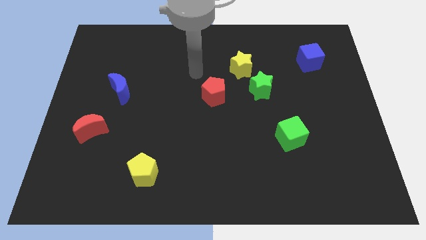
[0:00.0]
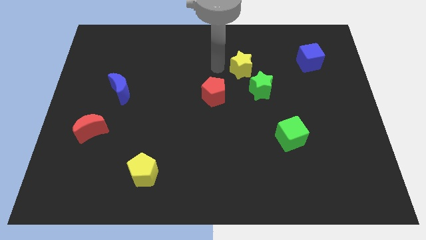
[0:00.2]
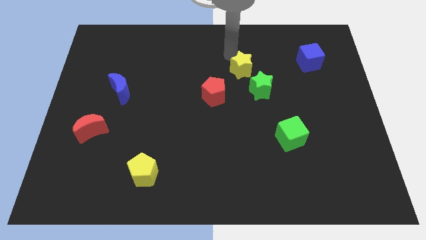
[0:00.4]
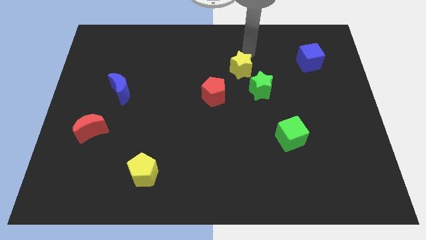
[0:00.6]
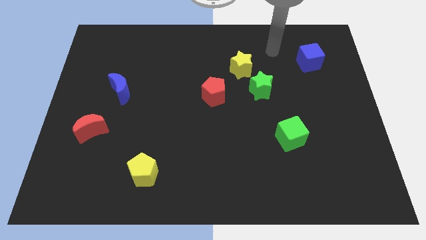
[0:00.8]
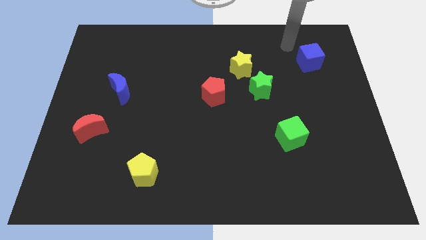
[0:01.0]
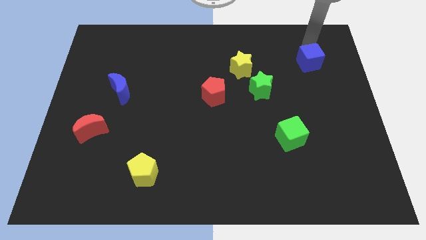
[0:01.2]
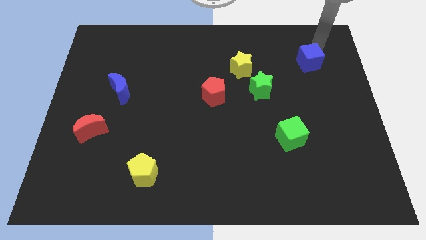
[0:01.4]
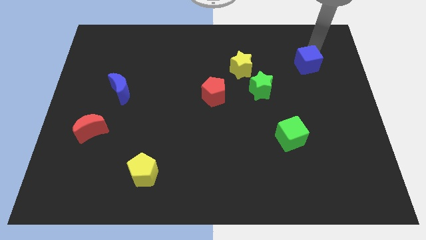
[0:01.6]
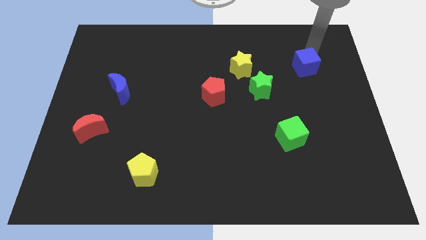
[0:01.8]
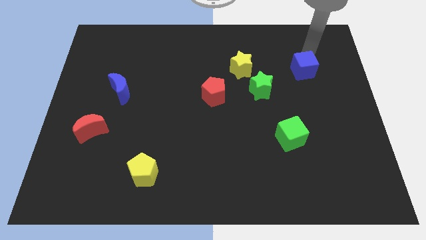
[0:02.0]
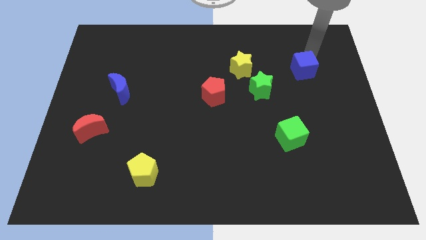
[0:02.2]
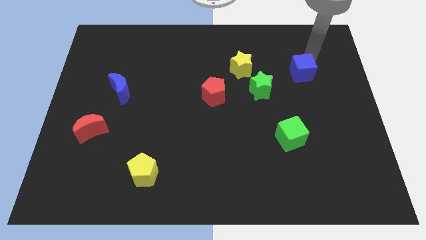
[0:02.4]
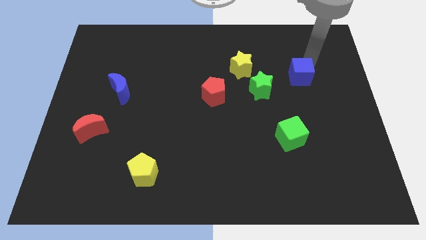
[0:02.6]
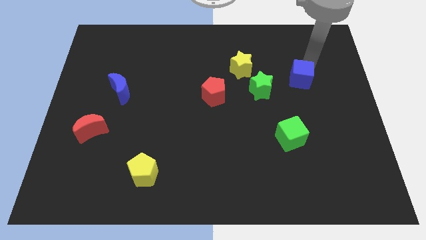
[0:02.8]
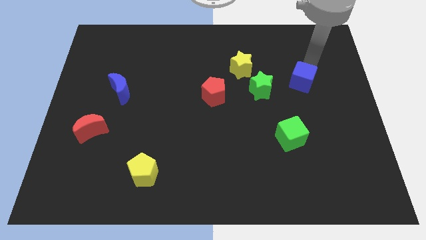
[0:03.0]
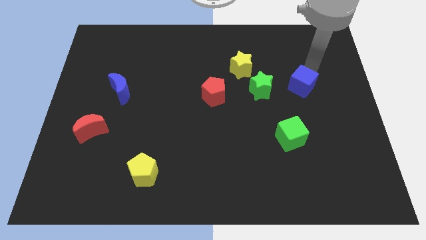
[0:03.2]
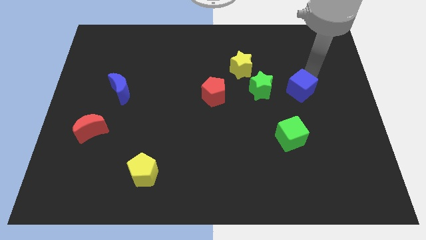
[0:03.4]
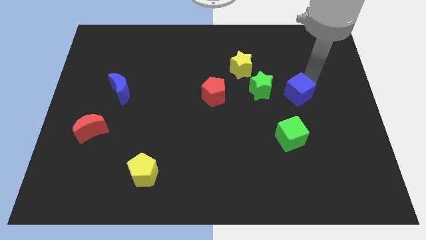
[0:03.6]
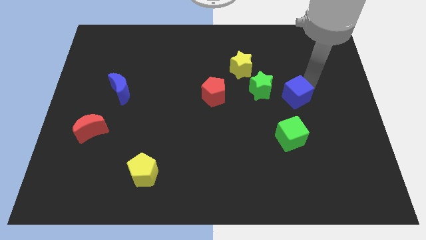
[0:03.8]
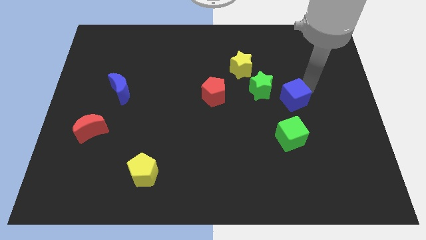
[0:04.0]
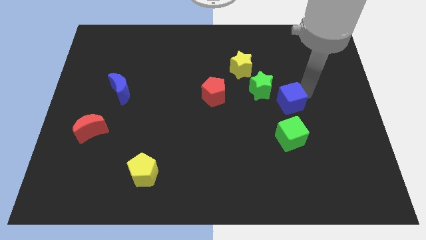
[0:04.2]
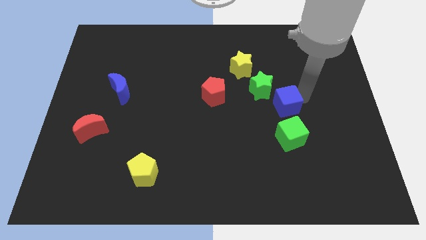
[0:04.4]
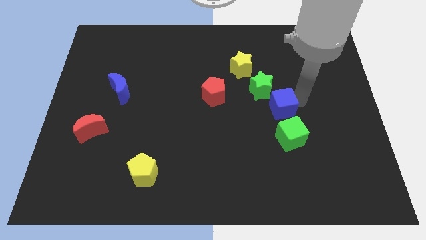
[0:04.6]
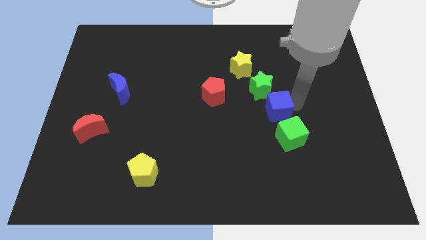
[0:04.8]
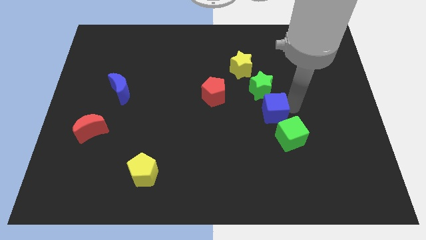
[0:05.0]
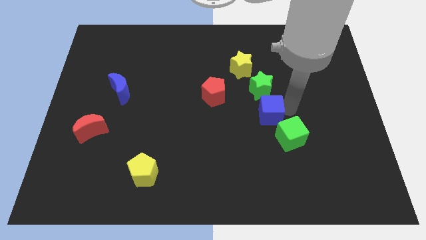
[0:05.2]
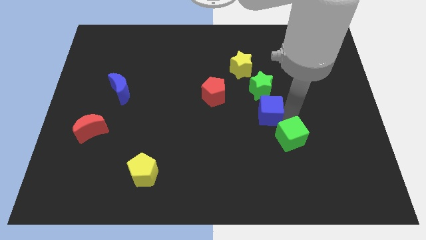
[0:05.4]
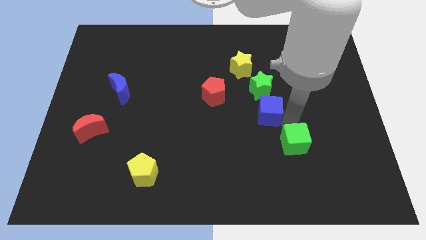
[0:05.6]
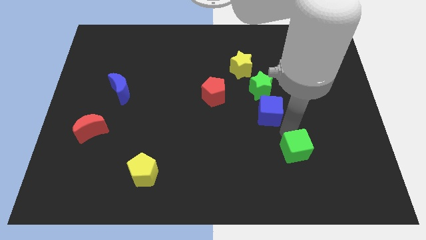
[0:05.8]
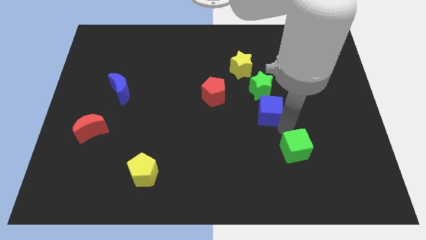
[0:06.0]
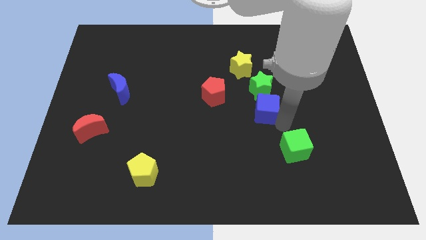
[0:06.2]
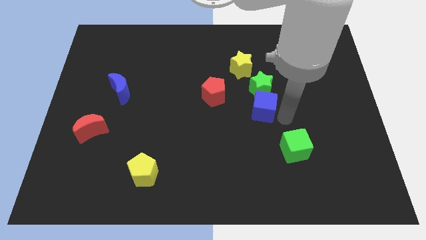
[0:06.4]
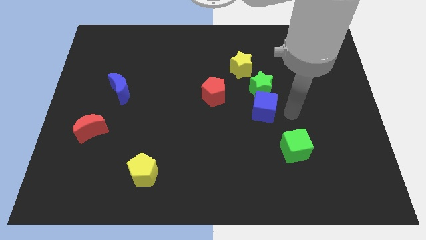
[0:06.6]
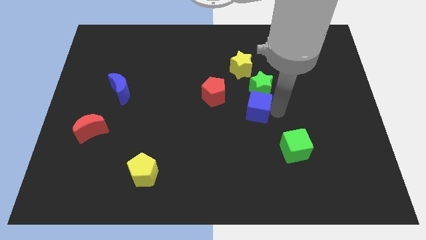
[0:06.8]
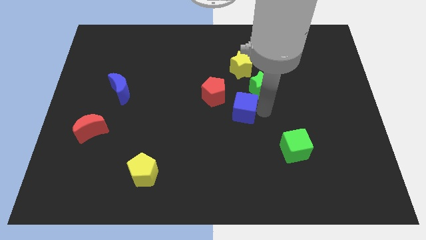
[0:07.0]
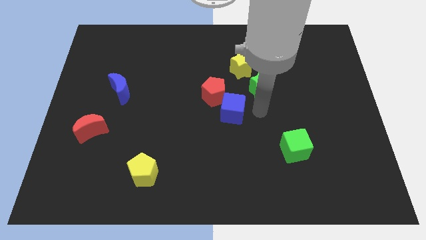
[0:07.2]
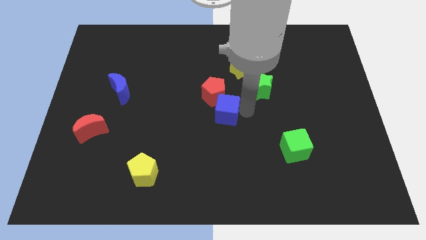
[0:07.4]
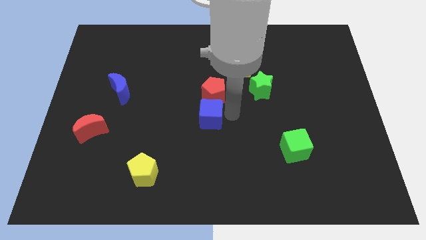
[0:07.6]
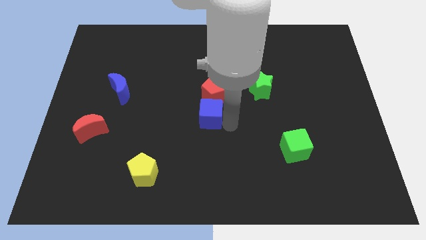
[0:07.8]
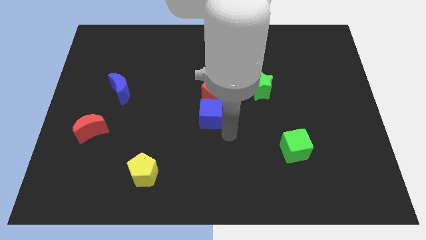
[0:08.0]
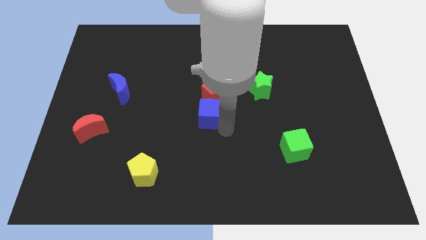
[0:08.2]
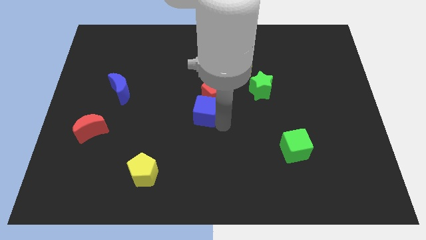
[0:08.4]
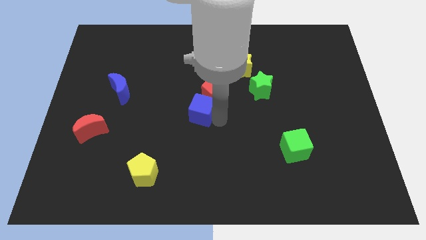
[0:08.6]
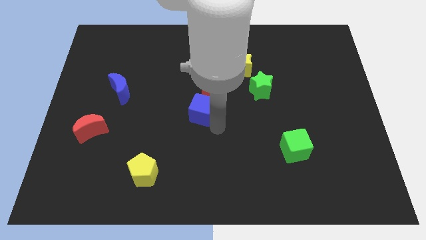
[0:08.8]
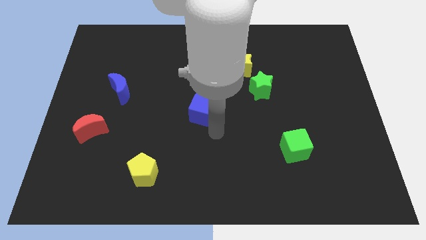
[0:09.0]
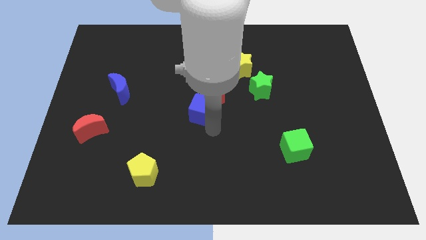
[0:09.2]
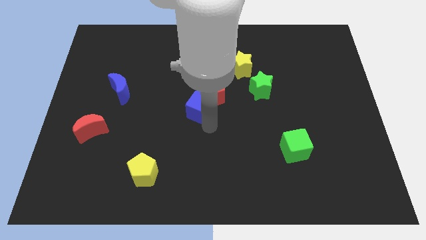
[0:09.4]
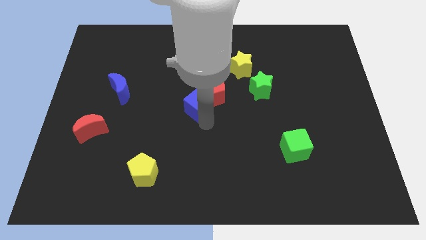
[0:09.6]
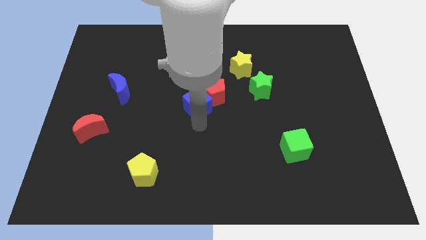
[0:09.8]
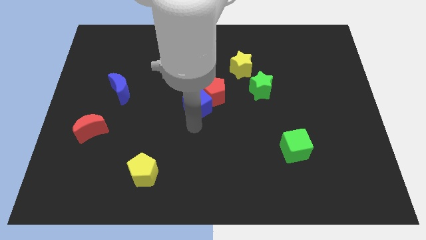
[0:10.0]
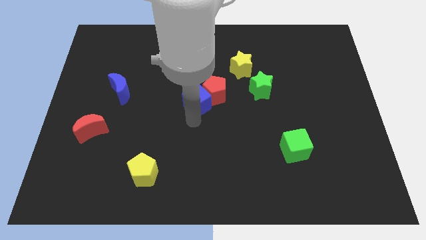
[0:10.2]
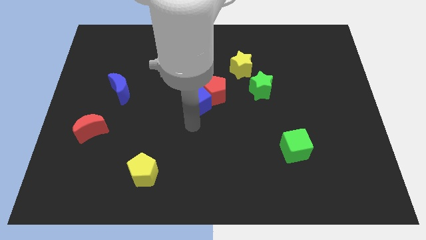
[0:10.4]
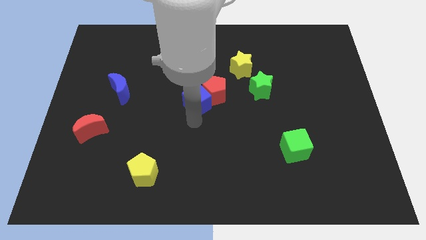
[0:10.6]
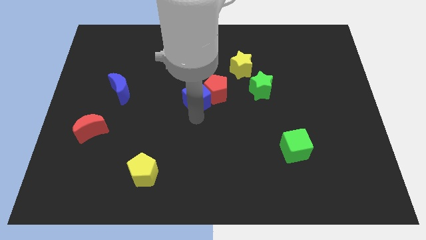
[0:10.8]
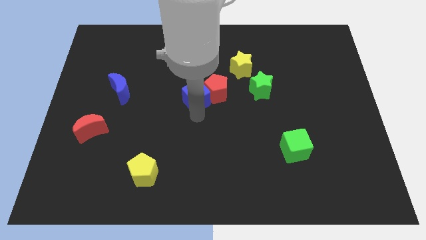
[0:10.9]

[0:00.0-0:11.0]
move the blue cube to the left of the green star

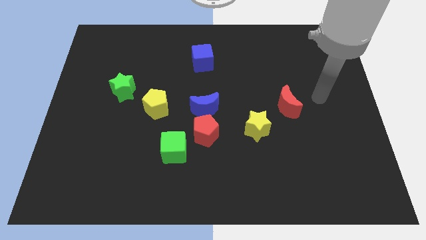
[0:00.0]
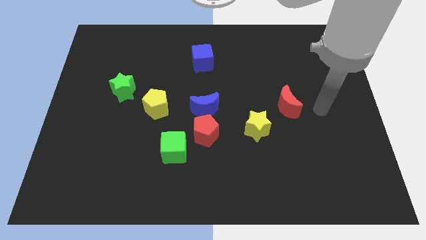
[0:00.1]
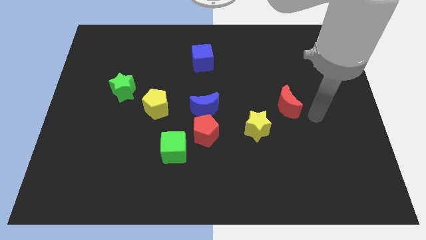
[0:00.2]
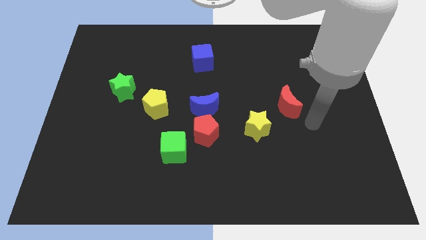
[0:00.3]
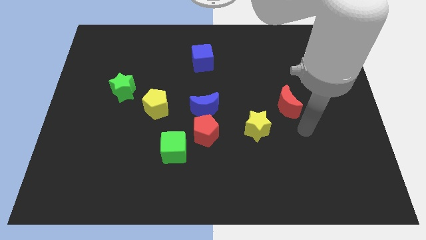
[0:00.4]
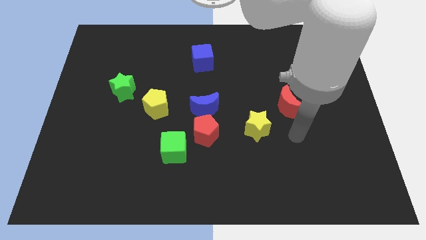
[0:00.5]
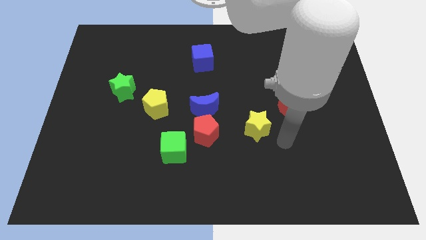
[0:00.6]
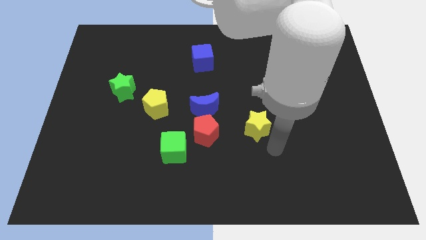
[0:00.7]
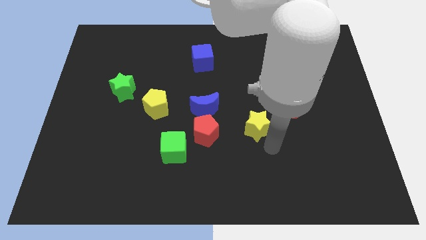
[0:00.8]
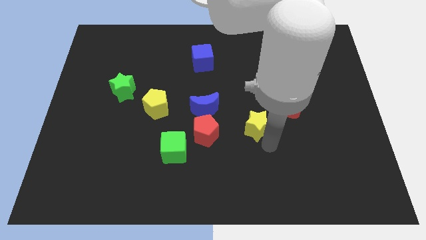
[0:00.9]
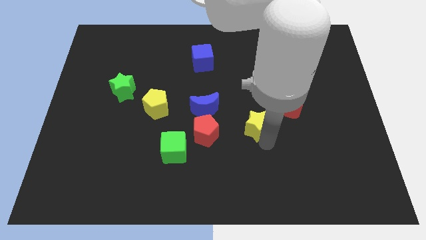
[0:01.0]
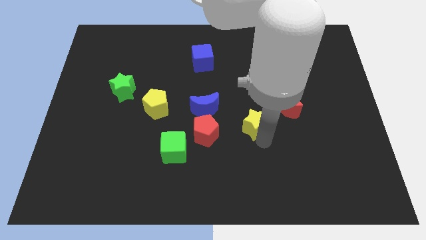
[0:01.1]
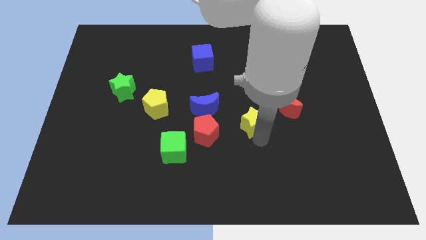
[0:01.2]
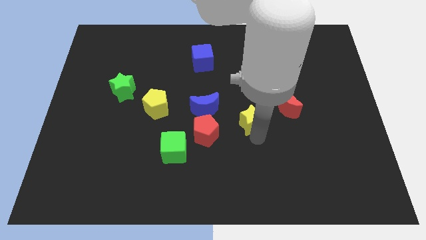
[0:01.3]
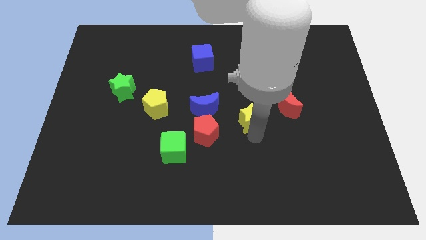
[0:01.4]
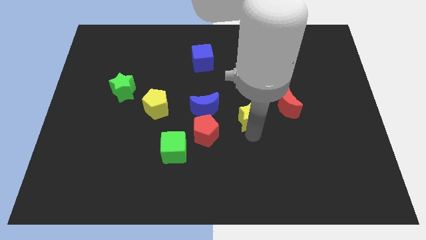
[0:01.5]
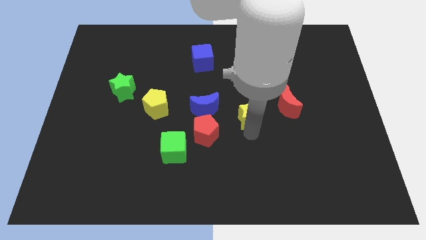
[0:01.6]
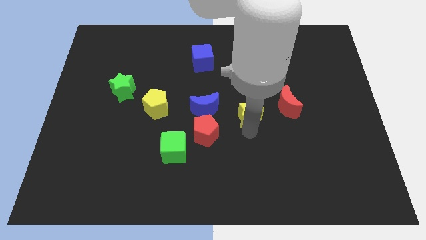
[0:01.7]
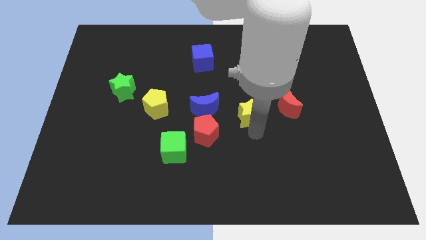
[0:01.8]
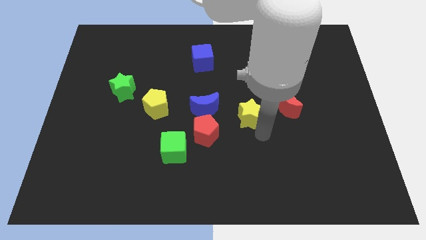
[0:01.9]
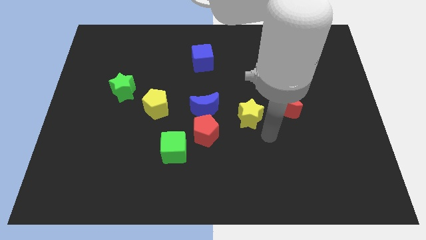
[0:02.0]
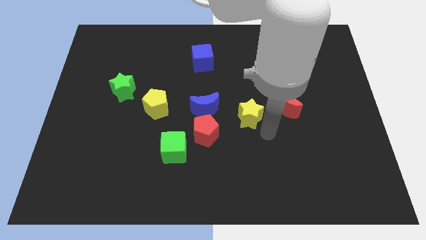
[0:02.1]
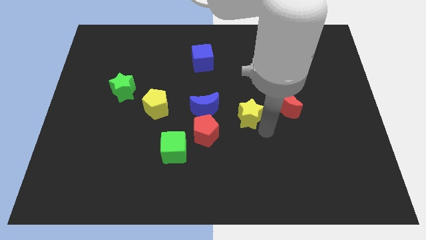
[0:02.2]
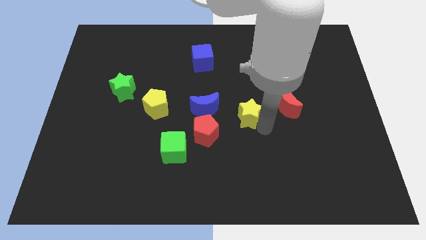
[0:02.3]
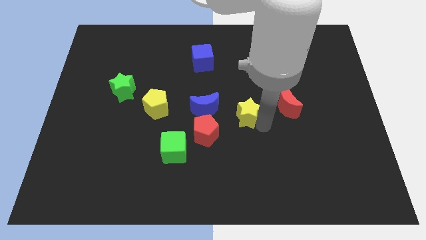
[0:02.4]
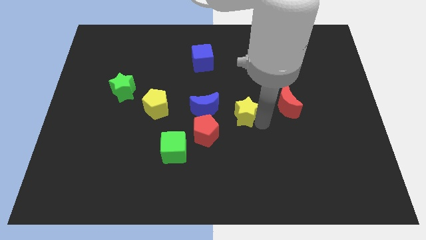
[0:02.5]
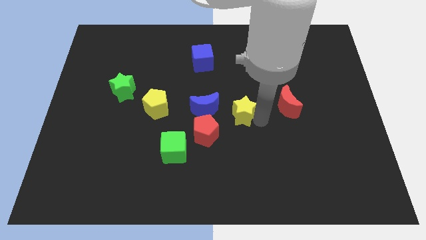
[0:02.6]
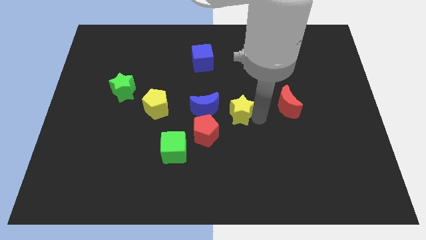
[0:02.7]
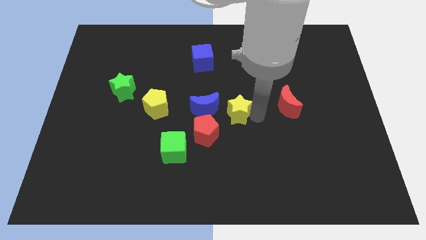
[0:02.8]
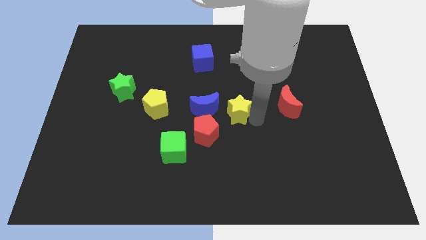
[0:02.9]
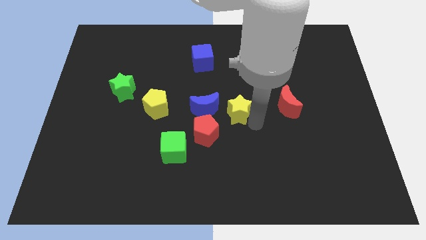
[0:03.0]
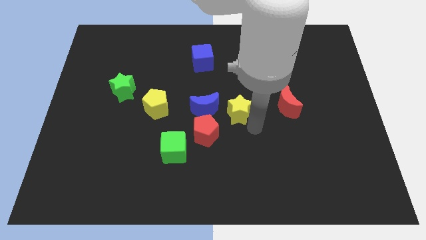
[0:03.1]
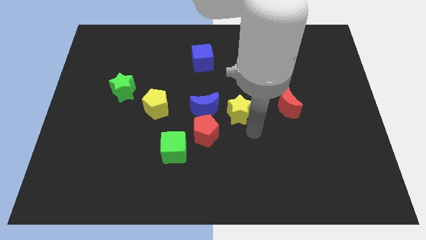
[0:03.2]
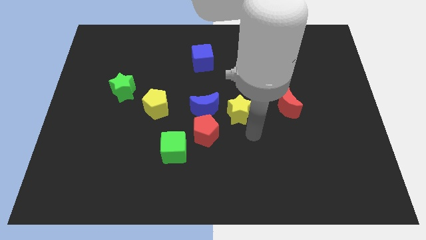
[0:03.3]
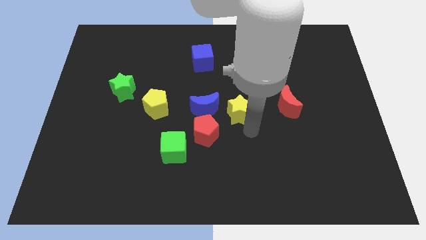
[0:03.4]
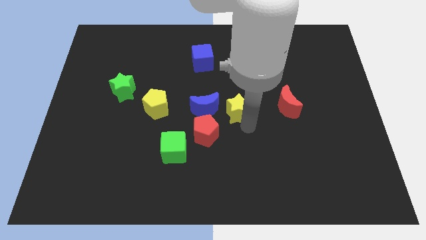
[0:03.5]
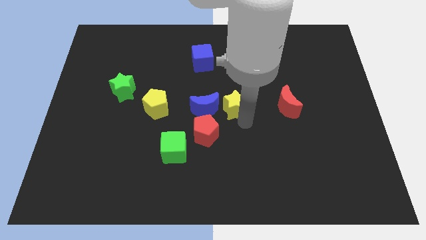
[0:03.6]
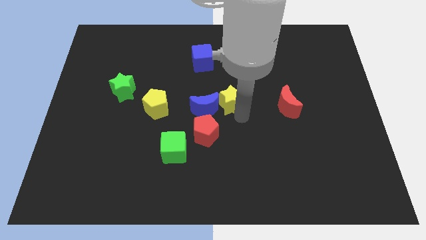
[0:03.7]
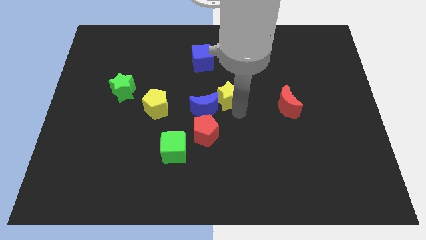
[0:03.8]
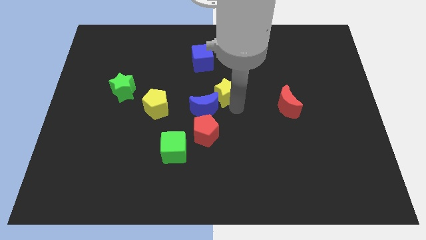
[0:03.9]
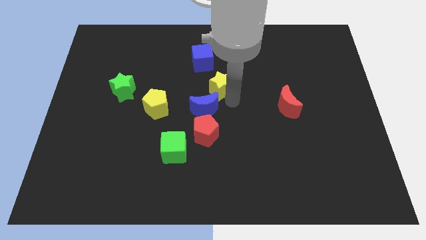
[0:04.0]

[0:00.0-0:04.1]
push the yellow star above the blue moon
